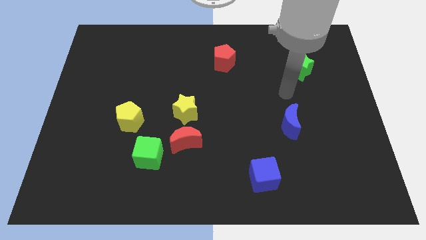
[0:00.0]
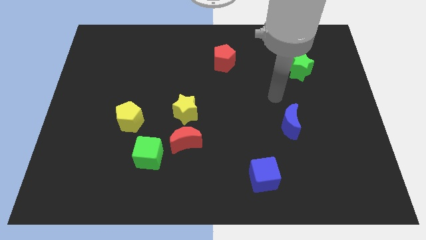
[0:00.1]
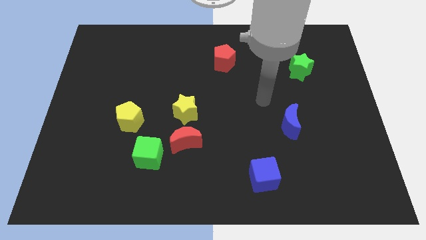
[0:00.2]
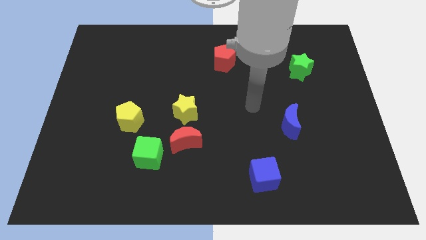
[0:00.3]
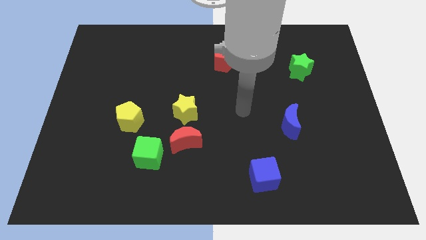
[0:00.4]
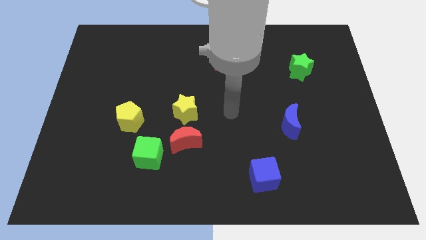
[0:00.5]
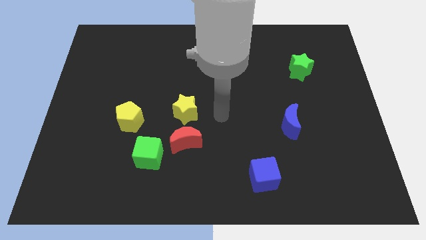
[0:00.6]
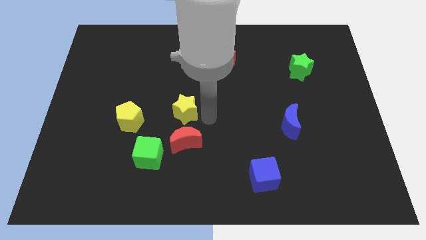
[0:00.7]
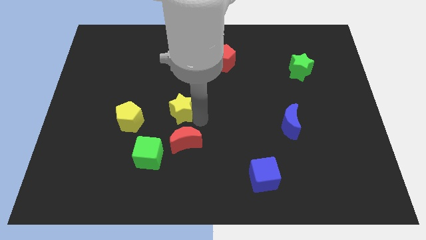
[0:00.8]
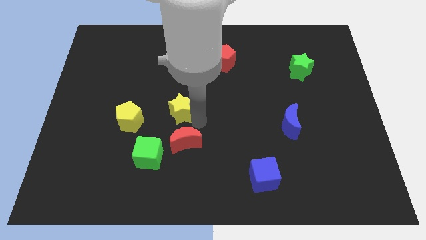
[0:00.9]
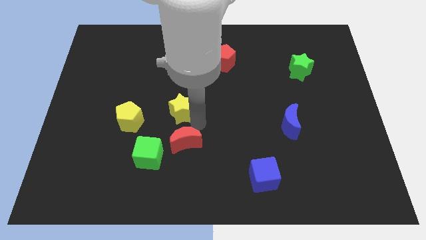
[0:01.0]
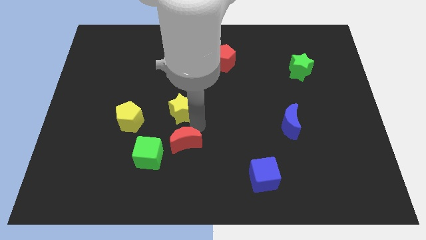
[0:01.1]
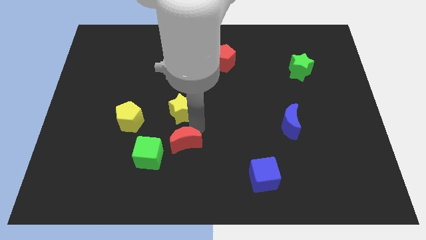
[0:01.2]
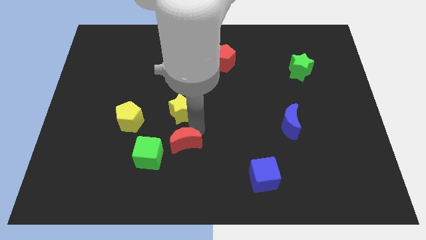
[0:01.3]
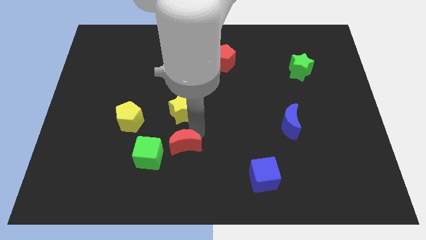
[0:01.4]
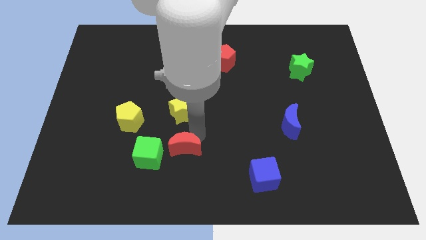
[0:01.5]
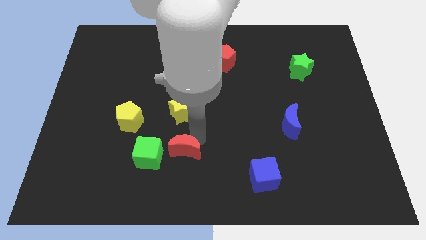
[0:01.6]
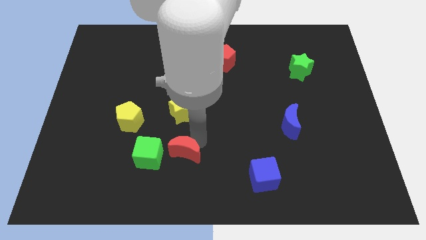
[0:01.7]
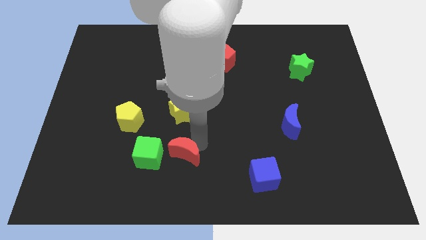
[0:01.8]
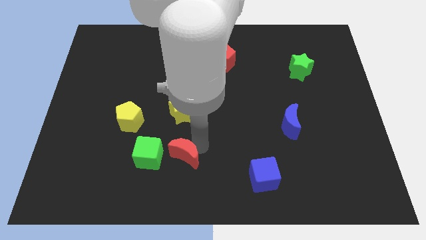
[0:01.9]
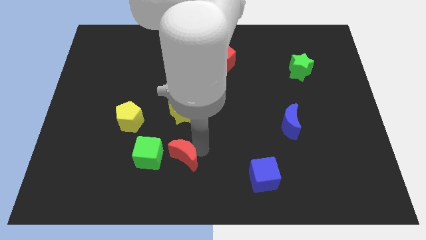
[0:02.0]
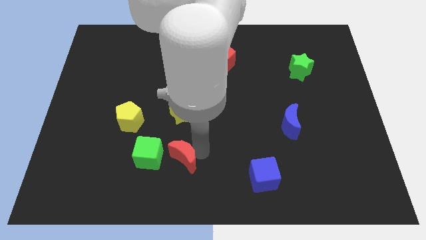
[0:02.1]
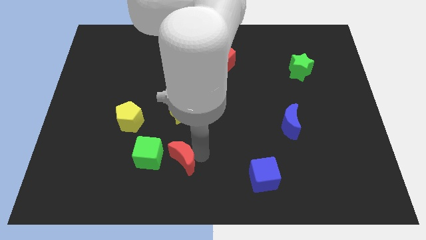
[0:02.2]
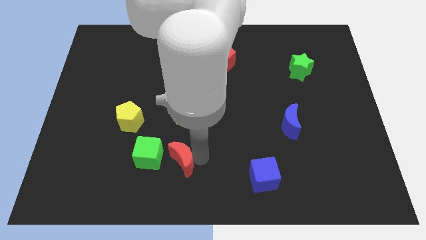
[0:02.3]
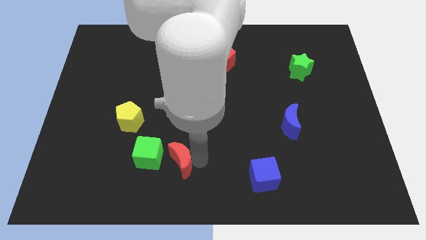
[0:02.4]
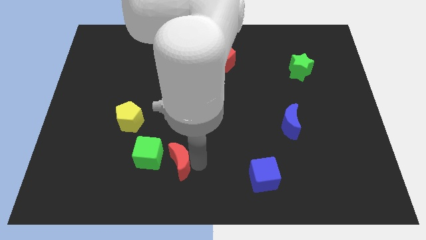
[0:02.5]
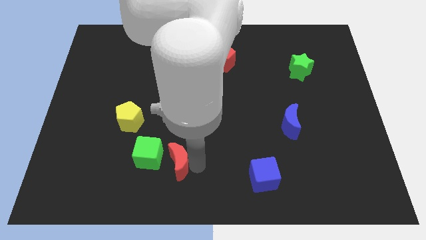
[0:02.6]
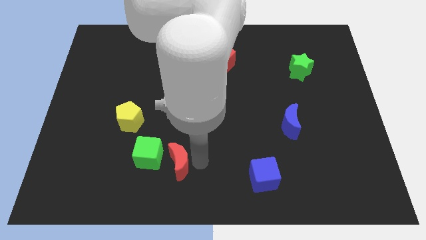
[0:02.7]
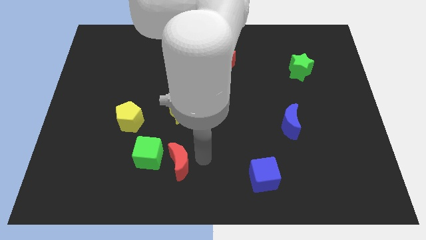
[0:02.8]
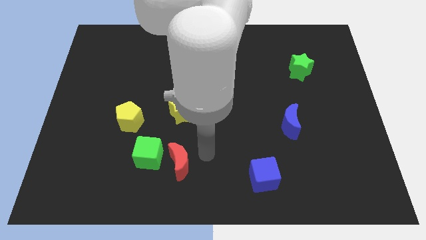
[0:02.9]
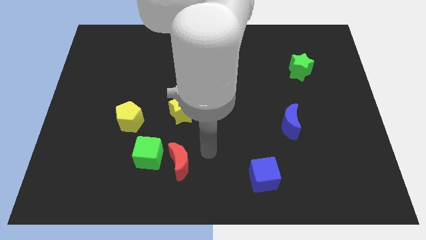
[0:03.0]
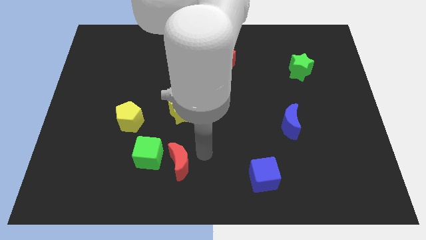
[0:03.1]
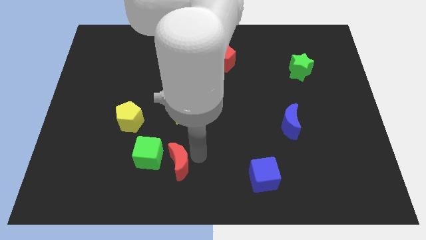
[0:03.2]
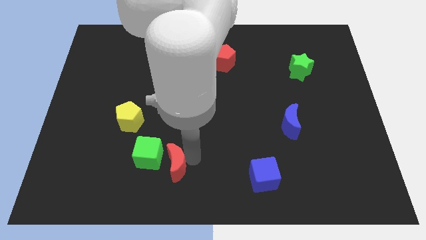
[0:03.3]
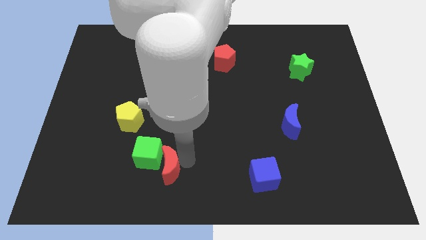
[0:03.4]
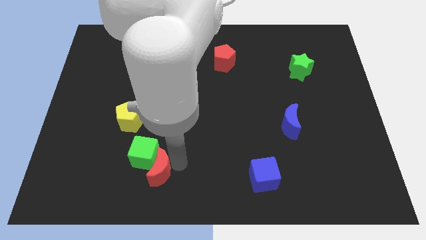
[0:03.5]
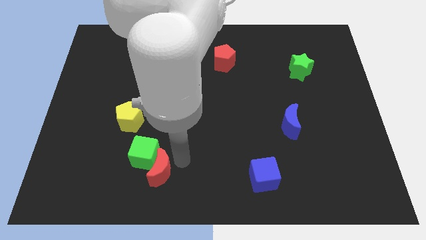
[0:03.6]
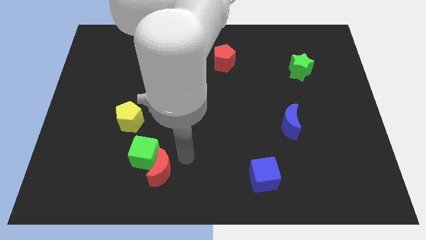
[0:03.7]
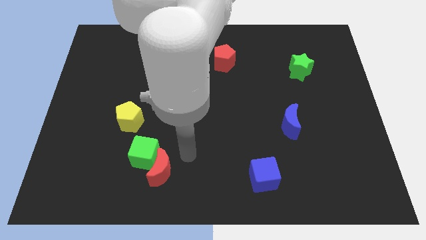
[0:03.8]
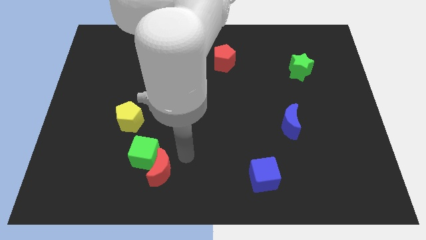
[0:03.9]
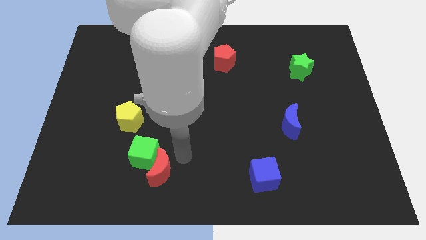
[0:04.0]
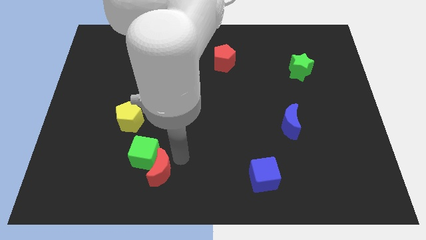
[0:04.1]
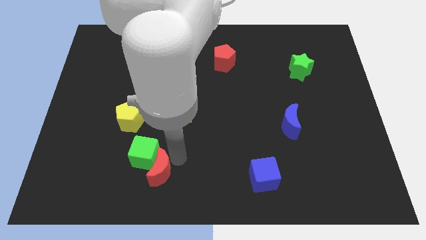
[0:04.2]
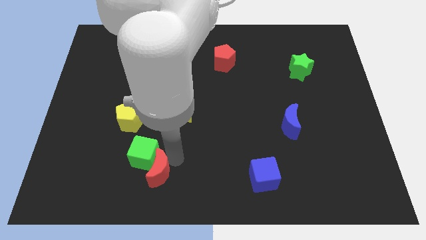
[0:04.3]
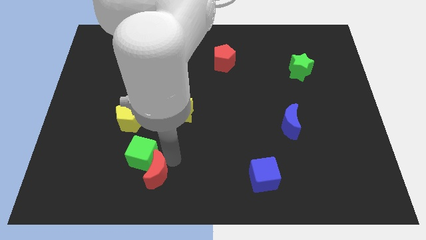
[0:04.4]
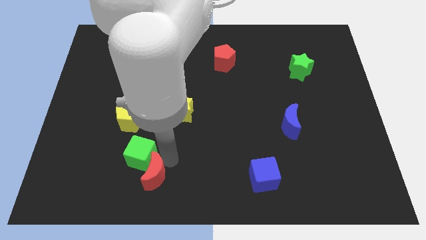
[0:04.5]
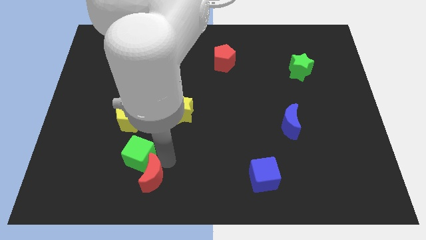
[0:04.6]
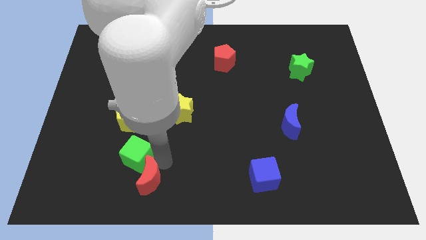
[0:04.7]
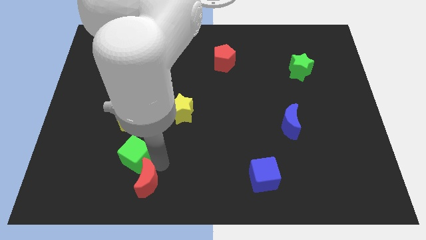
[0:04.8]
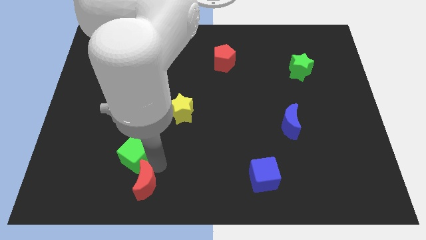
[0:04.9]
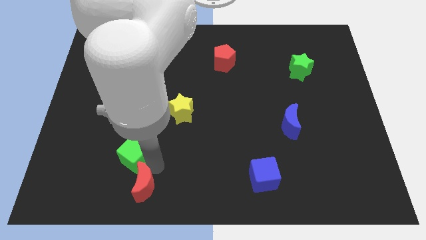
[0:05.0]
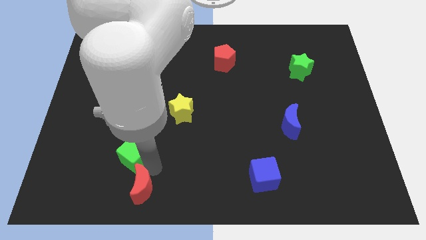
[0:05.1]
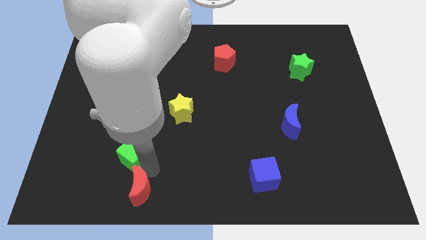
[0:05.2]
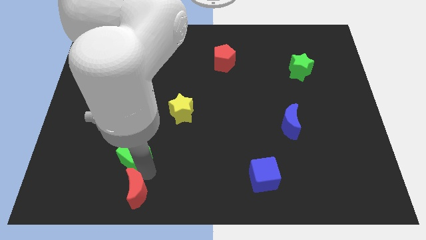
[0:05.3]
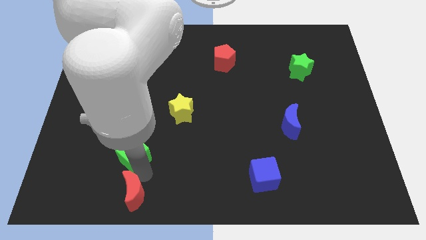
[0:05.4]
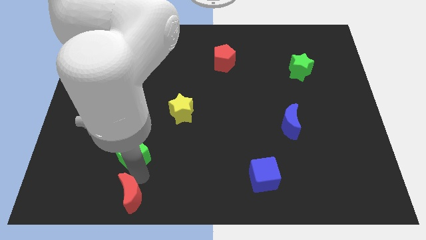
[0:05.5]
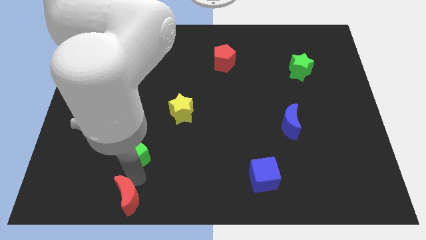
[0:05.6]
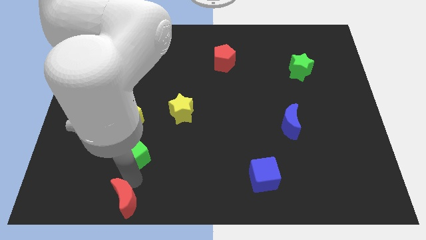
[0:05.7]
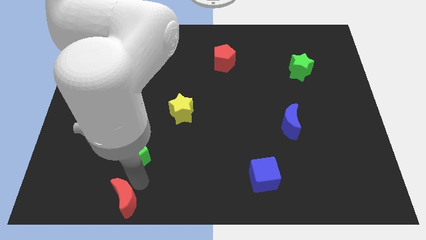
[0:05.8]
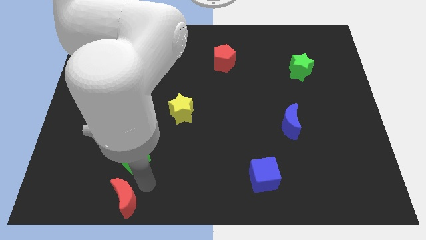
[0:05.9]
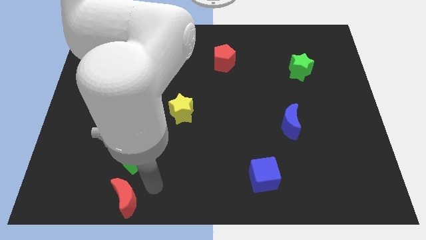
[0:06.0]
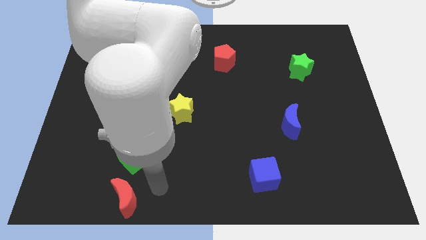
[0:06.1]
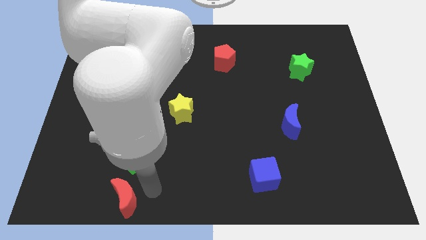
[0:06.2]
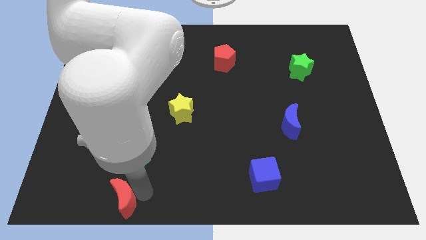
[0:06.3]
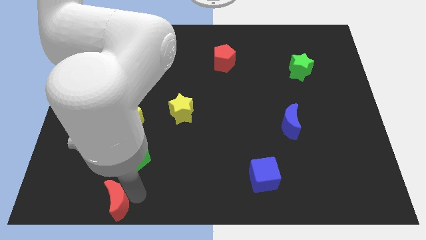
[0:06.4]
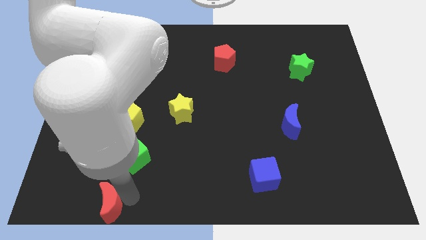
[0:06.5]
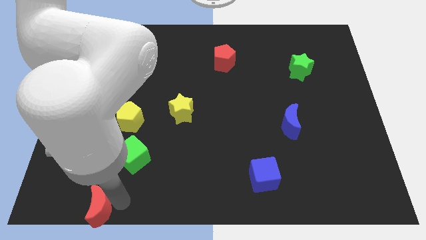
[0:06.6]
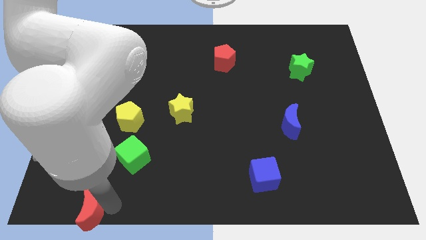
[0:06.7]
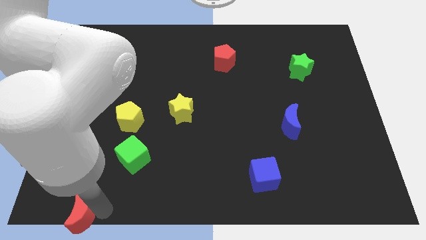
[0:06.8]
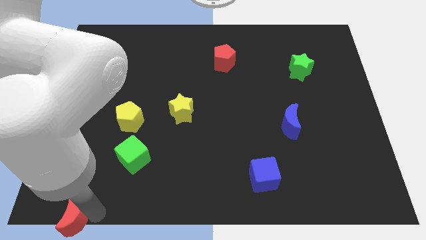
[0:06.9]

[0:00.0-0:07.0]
move the red moon to the bottom left
